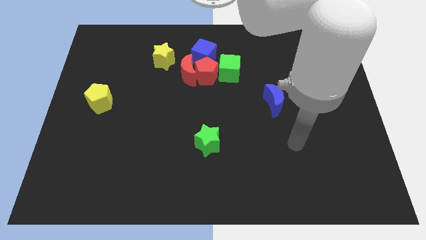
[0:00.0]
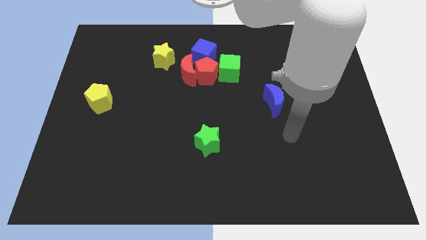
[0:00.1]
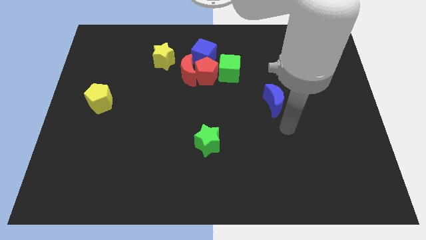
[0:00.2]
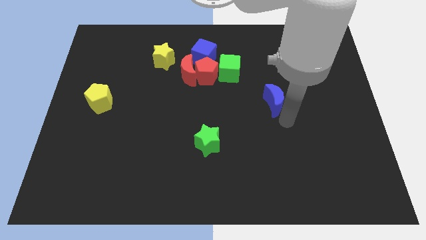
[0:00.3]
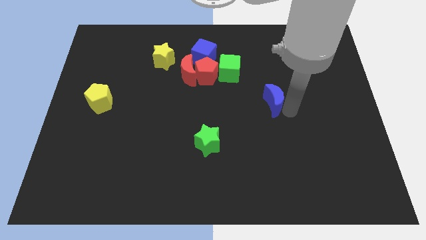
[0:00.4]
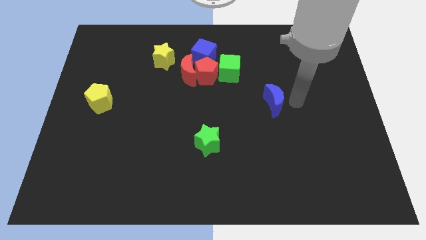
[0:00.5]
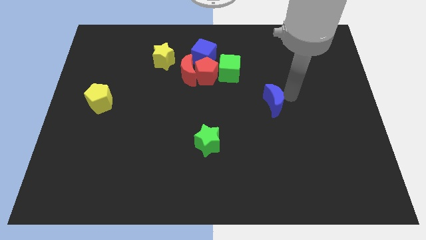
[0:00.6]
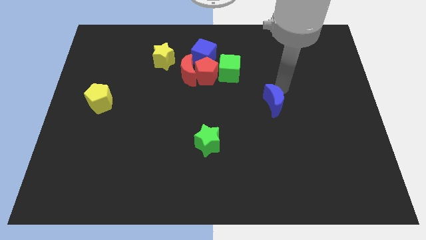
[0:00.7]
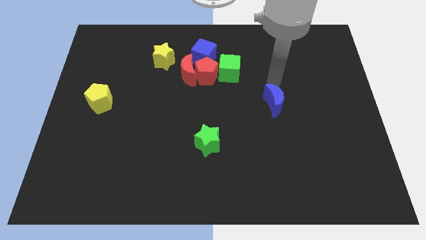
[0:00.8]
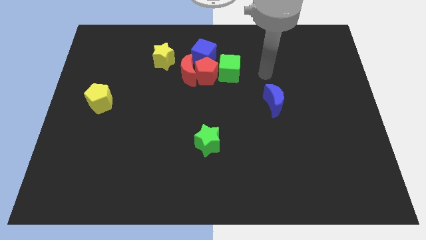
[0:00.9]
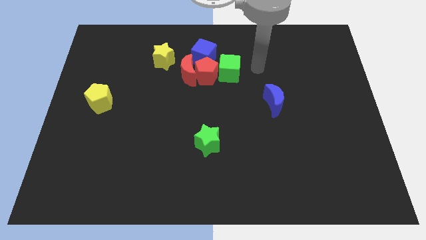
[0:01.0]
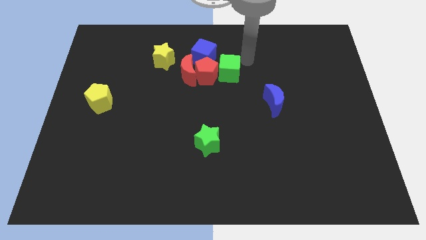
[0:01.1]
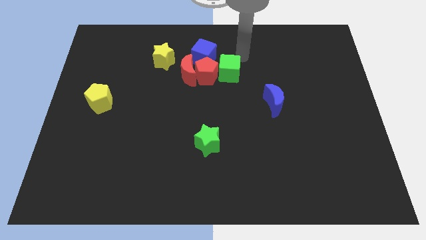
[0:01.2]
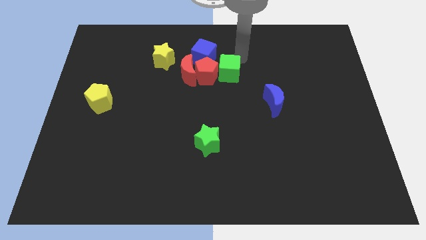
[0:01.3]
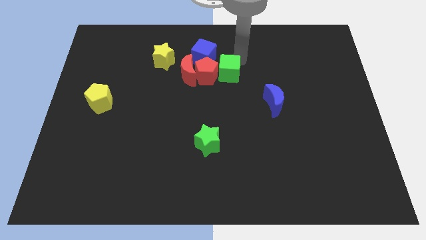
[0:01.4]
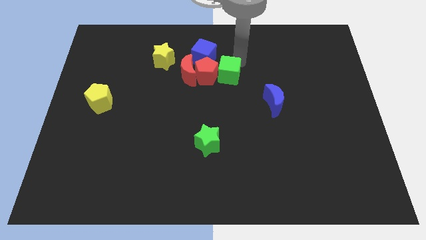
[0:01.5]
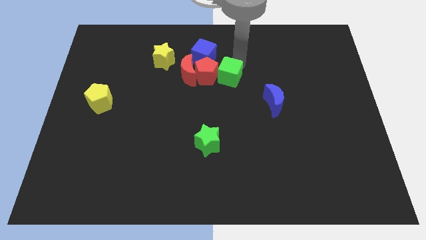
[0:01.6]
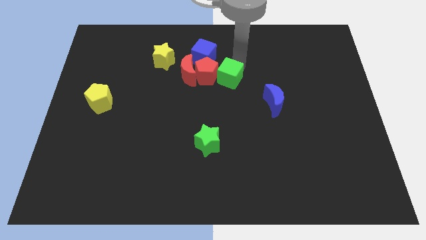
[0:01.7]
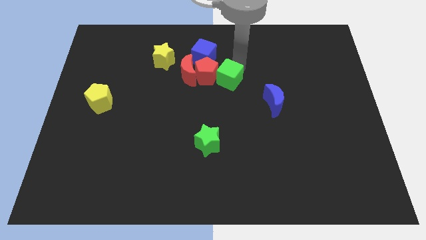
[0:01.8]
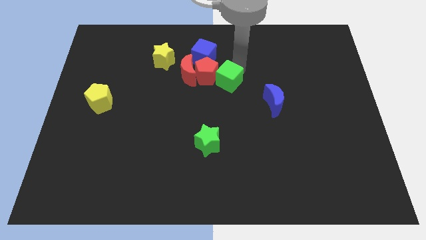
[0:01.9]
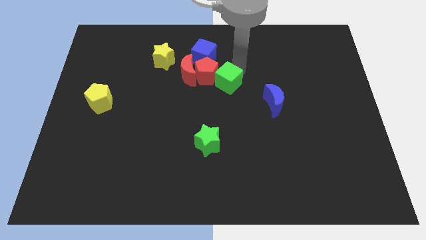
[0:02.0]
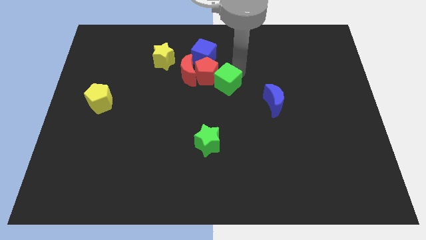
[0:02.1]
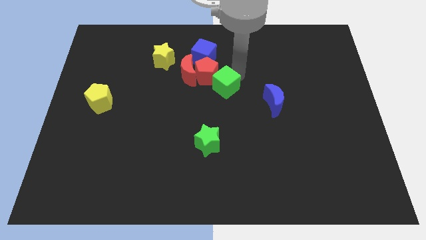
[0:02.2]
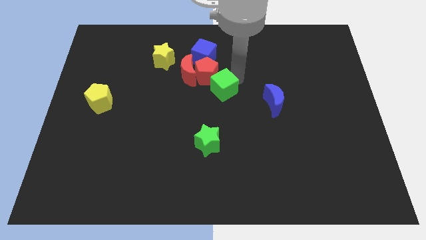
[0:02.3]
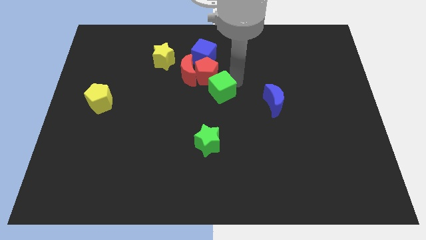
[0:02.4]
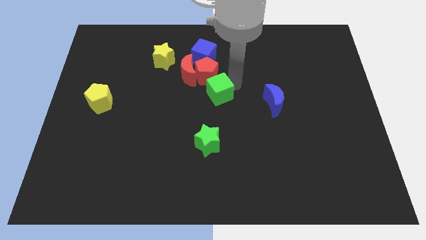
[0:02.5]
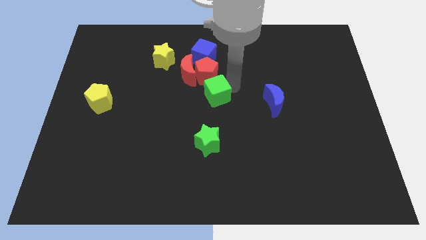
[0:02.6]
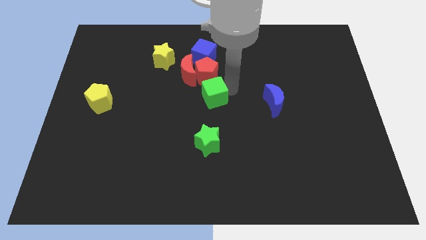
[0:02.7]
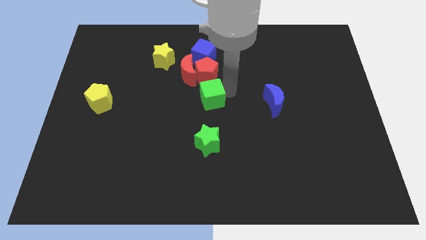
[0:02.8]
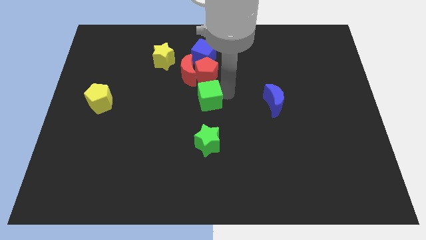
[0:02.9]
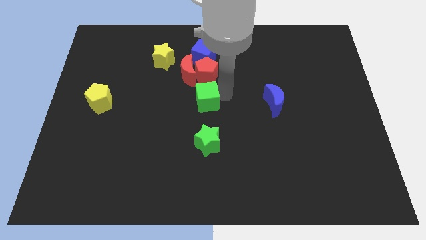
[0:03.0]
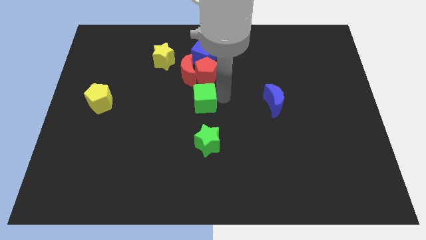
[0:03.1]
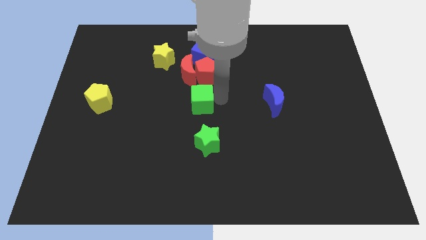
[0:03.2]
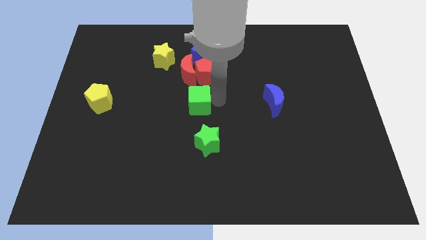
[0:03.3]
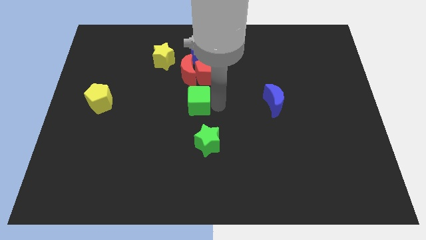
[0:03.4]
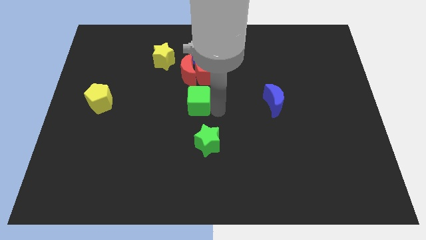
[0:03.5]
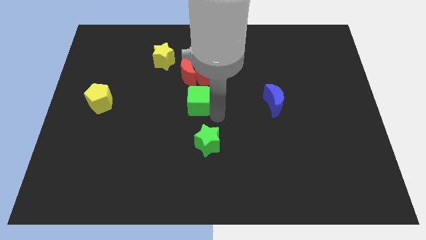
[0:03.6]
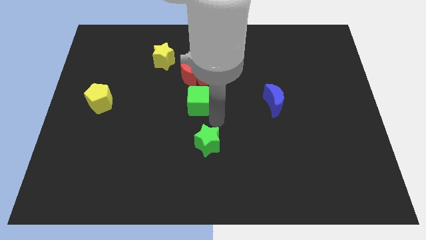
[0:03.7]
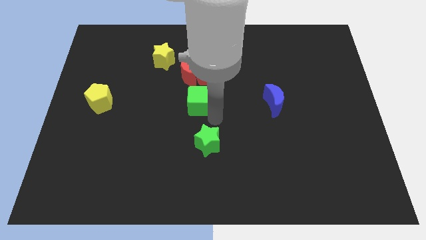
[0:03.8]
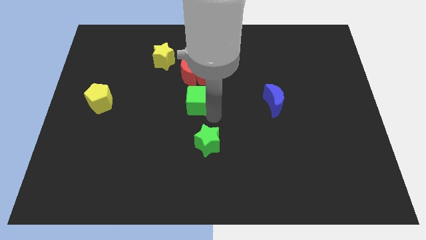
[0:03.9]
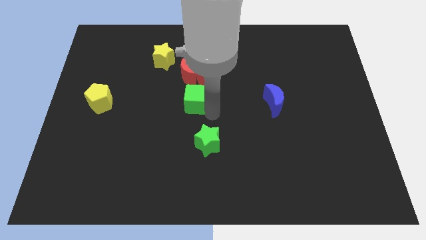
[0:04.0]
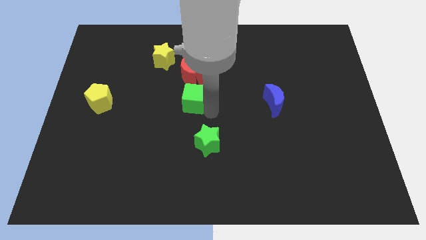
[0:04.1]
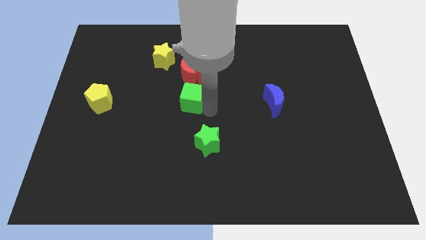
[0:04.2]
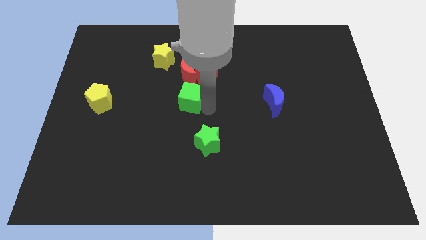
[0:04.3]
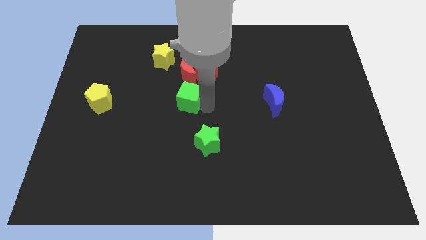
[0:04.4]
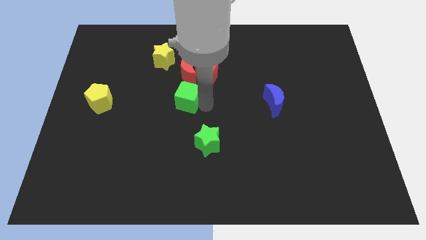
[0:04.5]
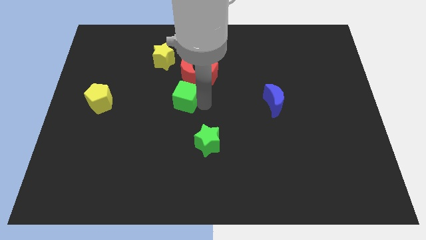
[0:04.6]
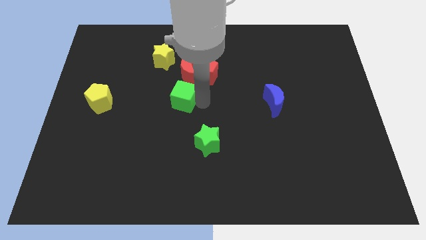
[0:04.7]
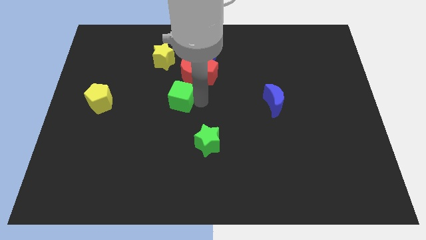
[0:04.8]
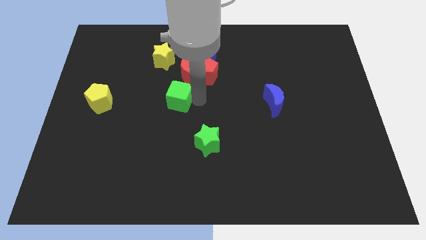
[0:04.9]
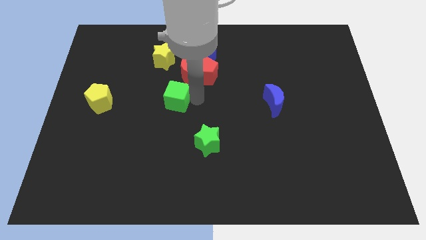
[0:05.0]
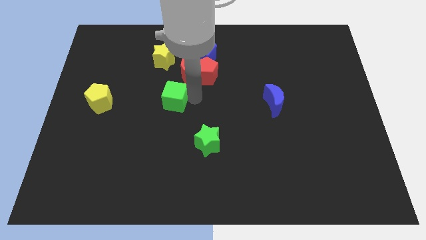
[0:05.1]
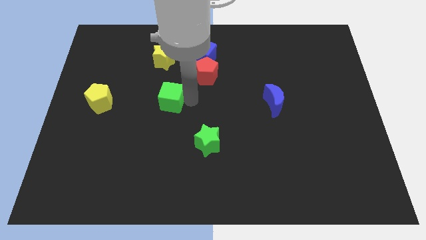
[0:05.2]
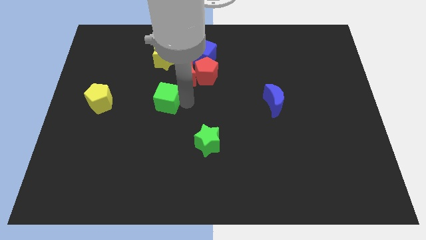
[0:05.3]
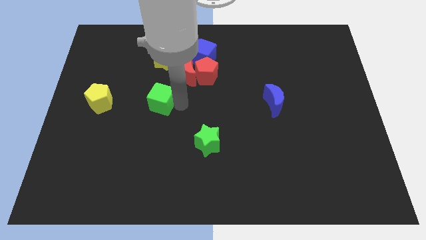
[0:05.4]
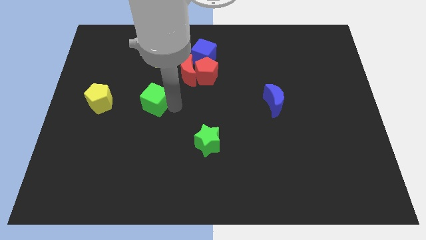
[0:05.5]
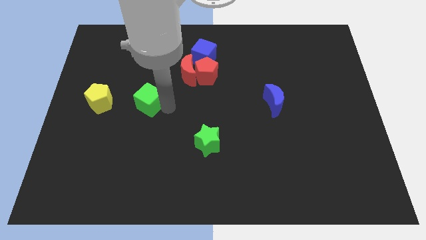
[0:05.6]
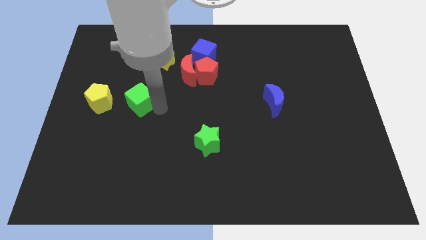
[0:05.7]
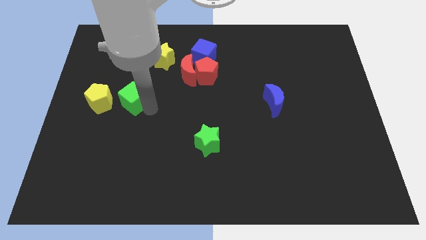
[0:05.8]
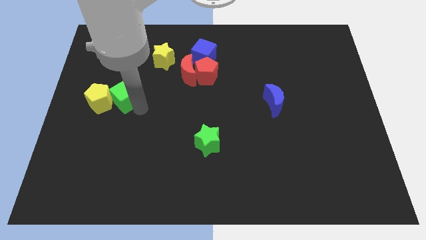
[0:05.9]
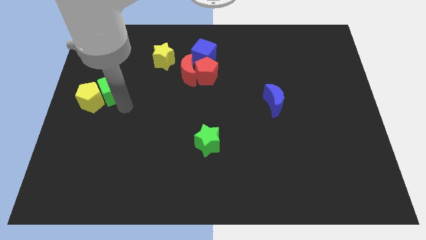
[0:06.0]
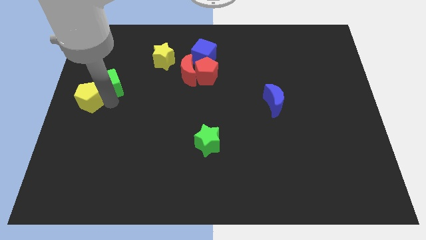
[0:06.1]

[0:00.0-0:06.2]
move the green cube to the center left
